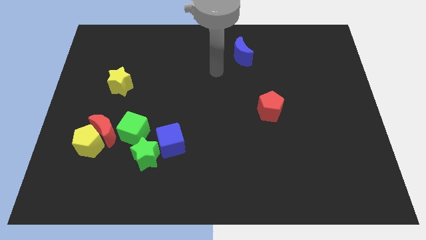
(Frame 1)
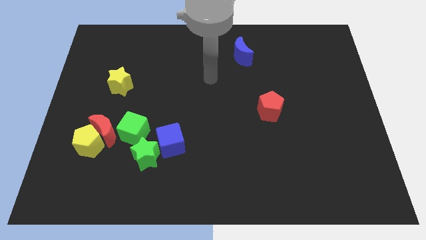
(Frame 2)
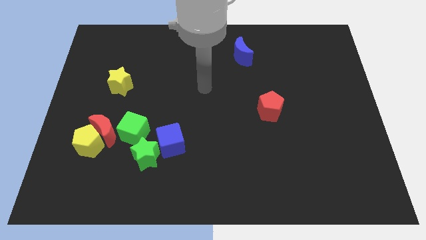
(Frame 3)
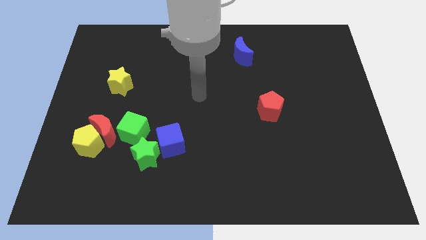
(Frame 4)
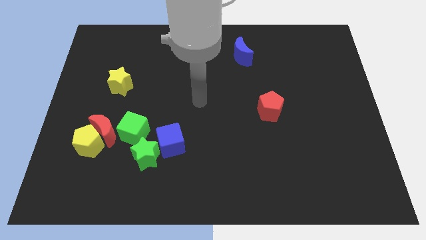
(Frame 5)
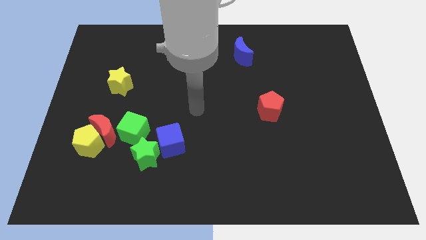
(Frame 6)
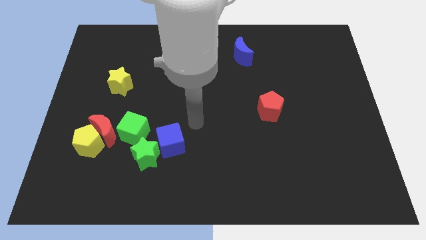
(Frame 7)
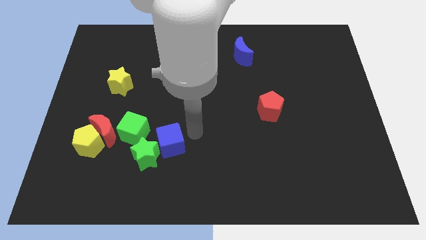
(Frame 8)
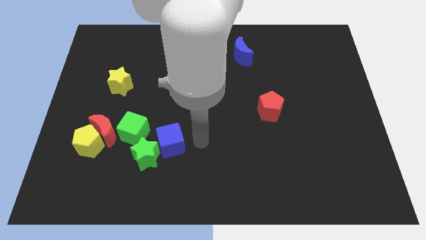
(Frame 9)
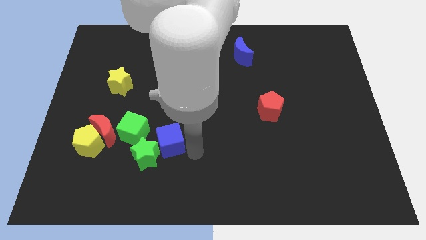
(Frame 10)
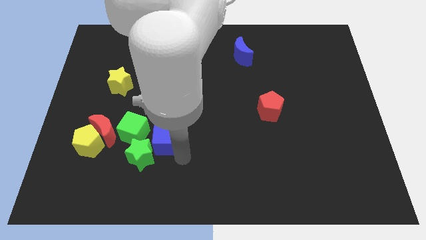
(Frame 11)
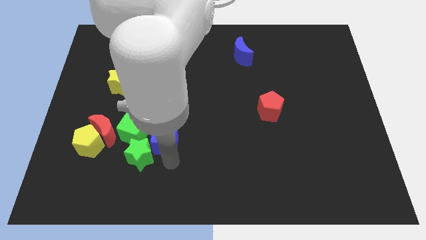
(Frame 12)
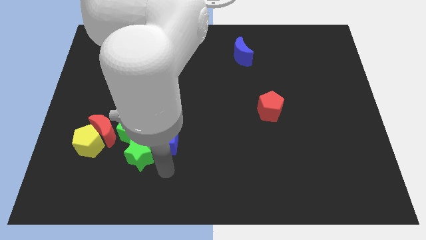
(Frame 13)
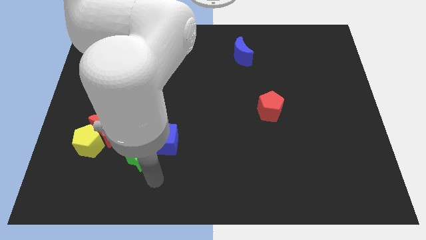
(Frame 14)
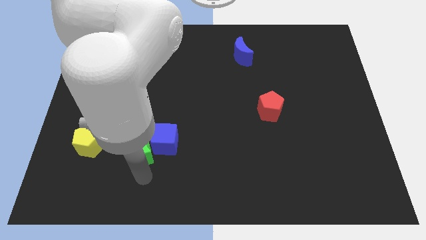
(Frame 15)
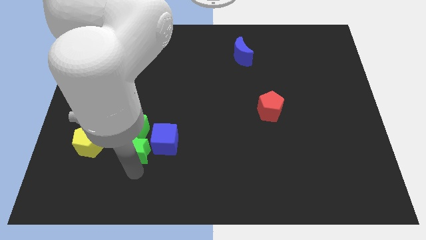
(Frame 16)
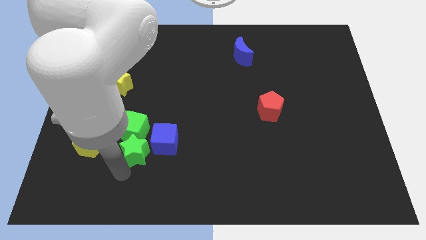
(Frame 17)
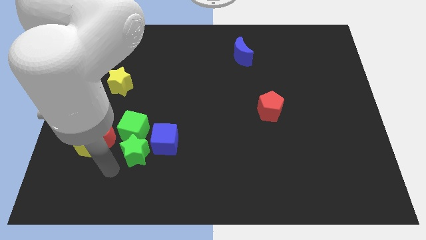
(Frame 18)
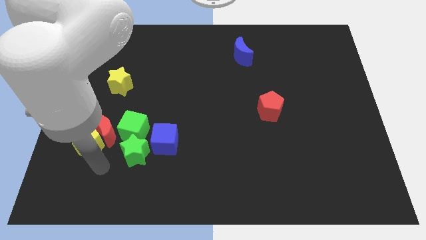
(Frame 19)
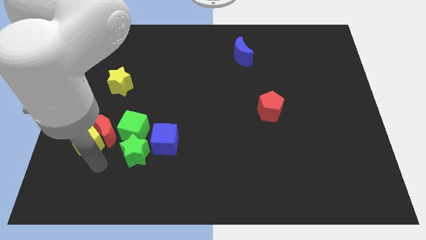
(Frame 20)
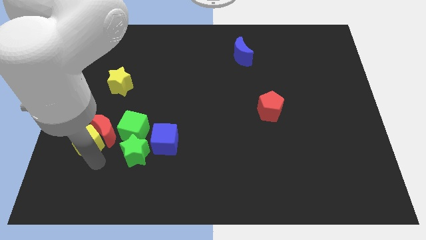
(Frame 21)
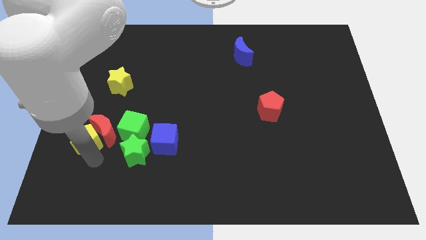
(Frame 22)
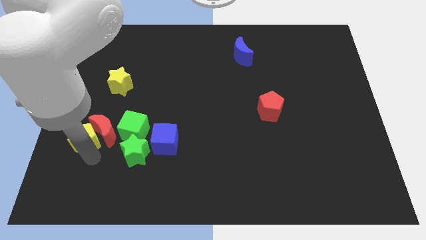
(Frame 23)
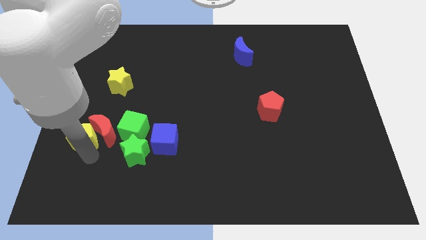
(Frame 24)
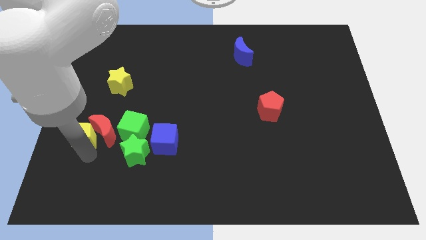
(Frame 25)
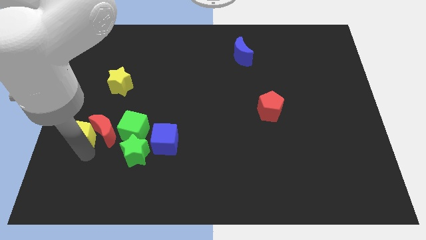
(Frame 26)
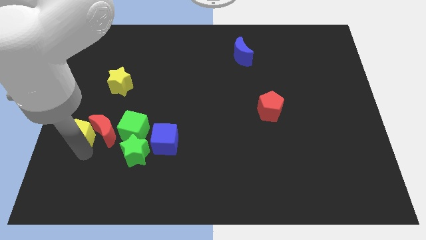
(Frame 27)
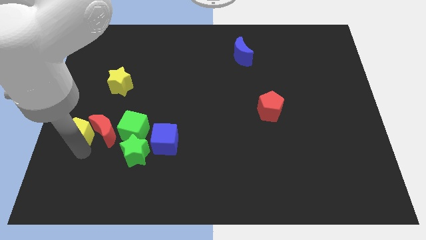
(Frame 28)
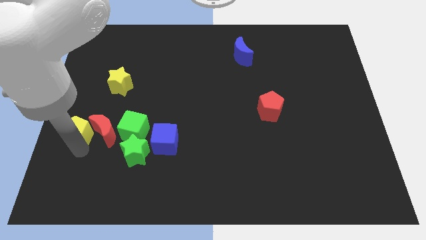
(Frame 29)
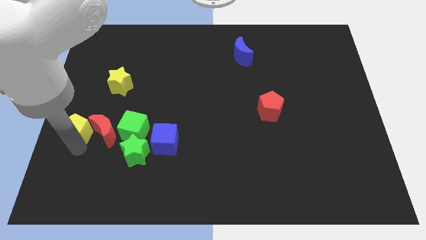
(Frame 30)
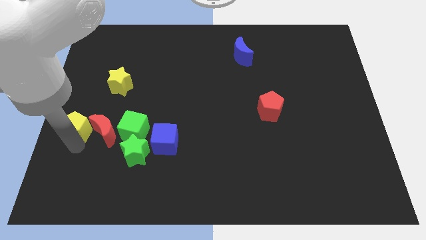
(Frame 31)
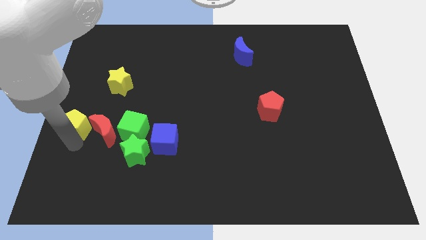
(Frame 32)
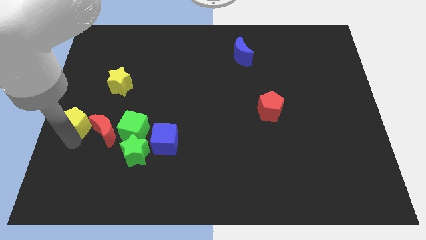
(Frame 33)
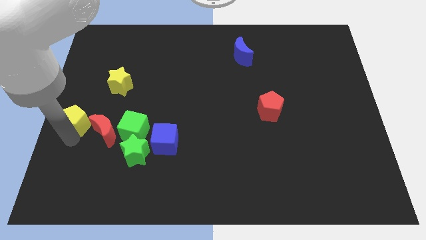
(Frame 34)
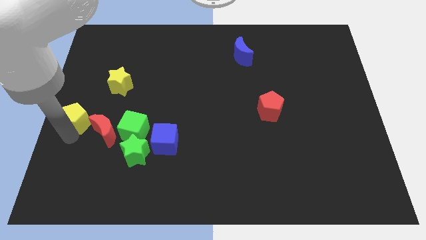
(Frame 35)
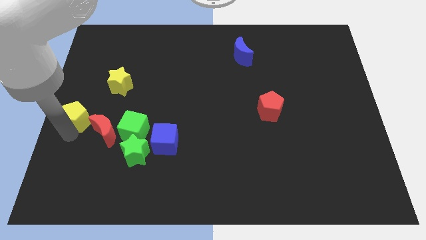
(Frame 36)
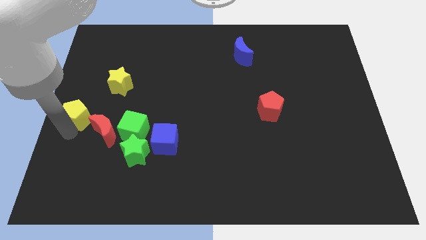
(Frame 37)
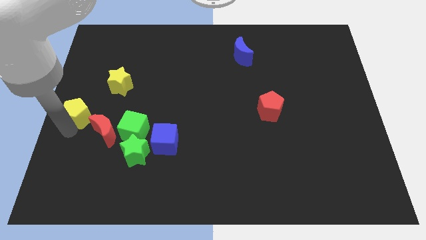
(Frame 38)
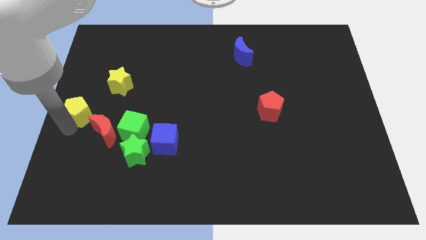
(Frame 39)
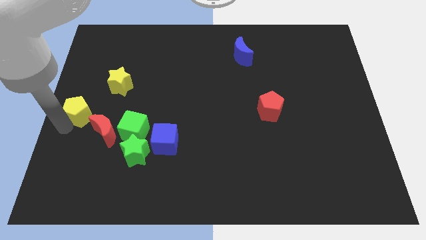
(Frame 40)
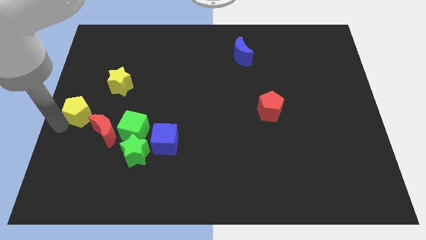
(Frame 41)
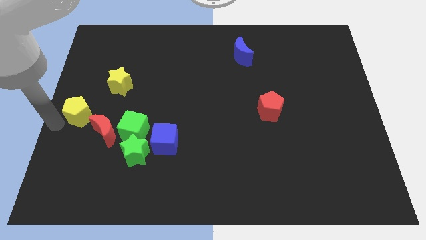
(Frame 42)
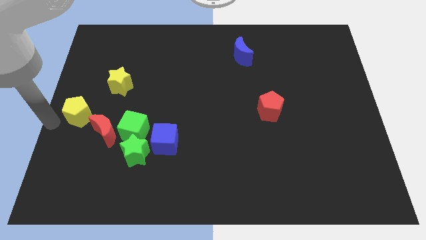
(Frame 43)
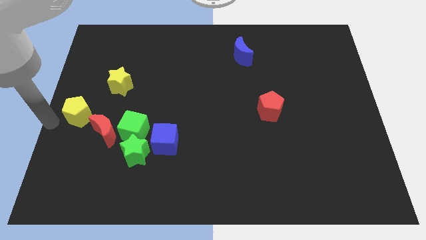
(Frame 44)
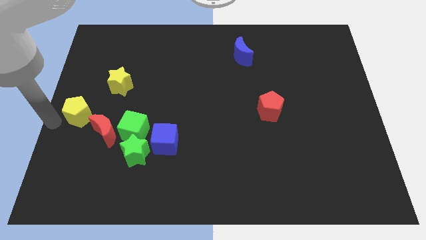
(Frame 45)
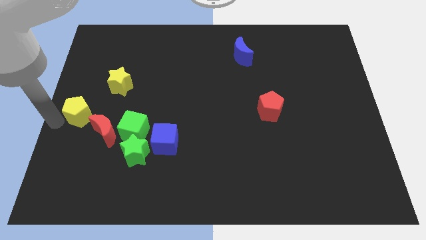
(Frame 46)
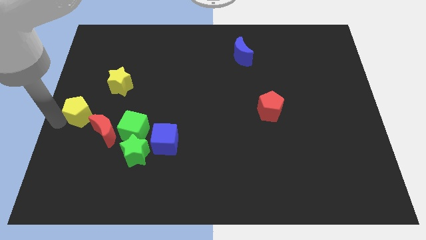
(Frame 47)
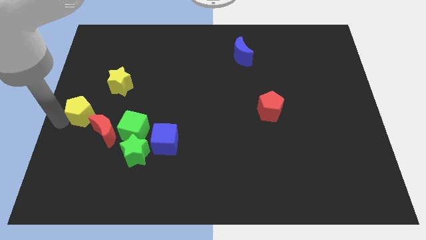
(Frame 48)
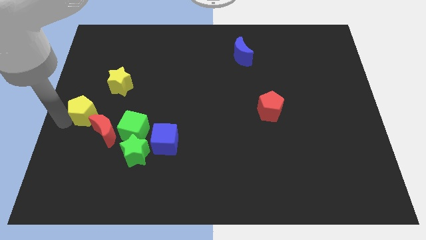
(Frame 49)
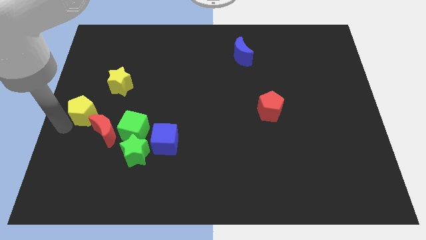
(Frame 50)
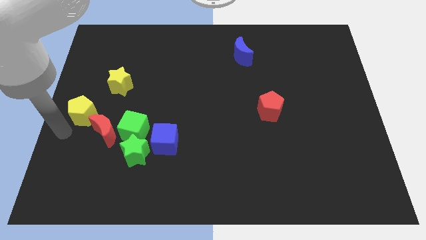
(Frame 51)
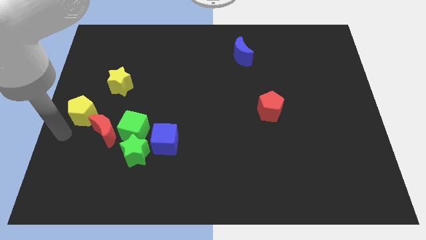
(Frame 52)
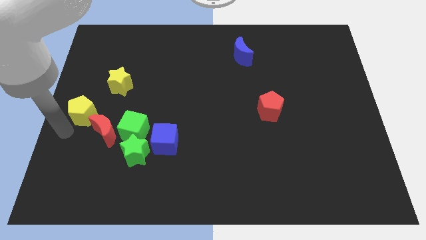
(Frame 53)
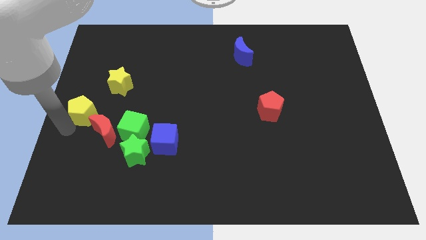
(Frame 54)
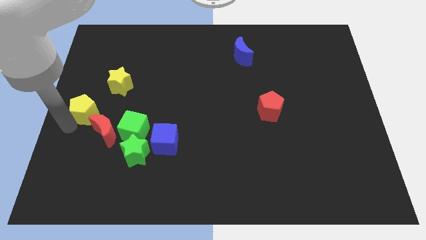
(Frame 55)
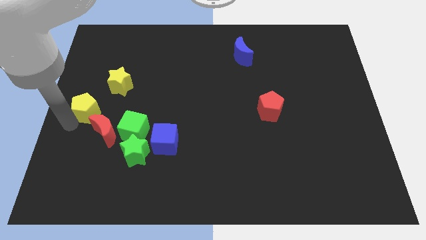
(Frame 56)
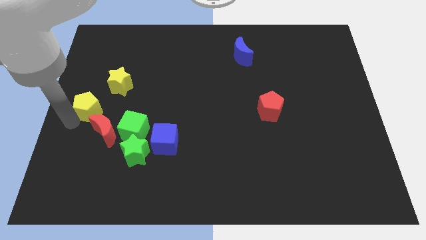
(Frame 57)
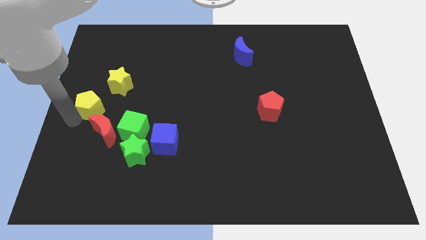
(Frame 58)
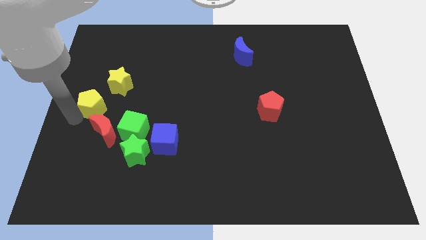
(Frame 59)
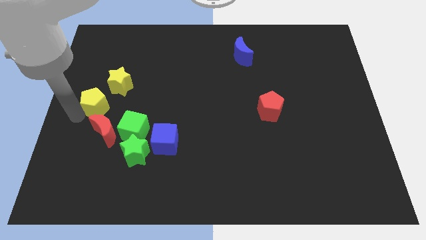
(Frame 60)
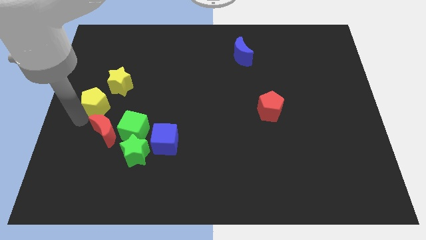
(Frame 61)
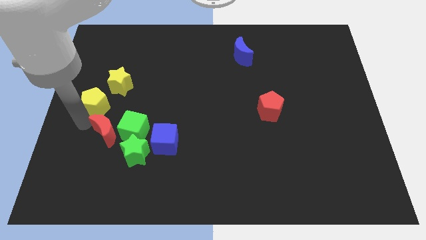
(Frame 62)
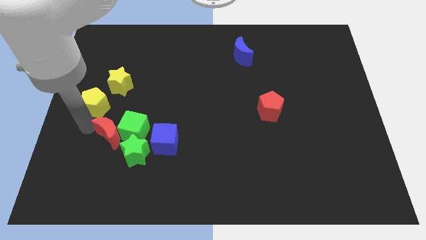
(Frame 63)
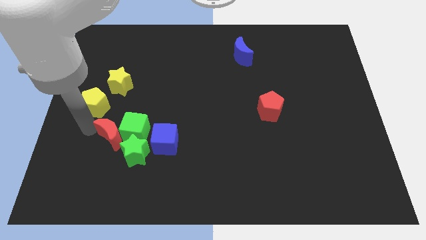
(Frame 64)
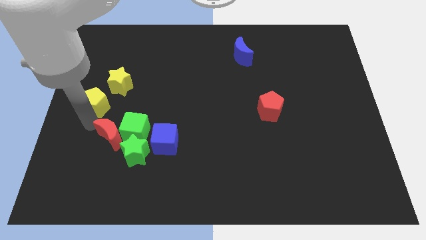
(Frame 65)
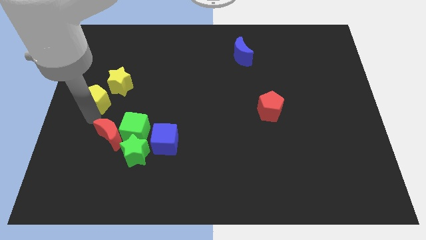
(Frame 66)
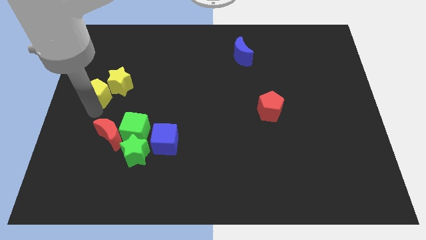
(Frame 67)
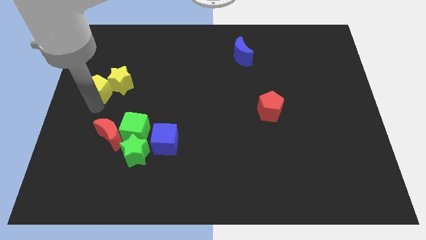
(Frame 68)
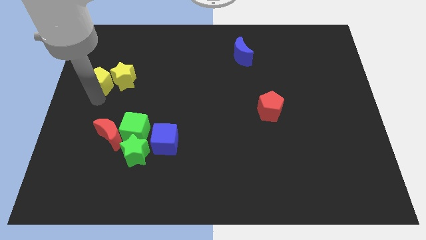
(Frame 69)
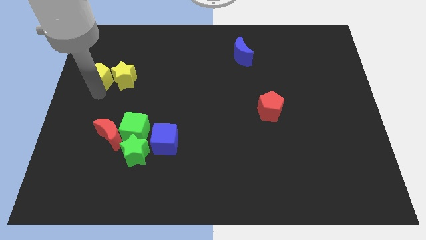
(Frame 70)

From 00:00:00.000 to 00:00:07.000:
move the yellow pentagon to the top left of the yellow star

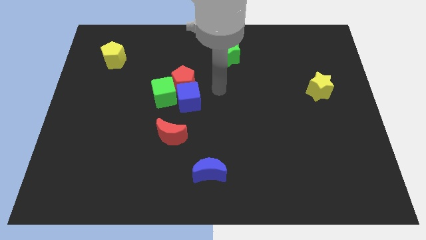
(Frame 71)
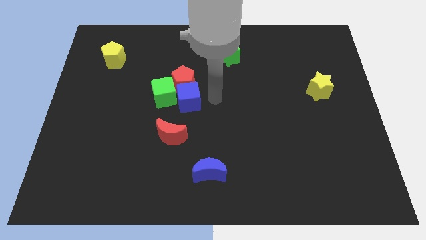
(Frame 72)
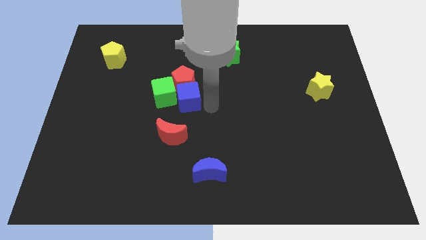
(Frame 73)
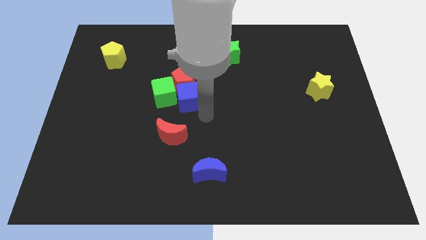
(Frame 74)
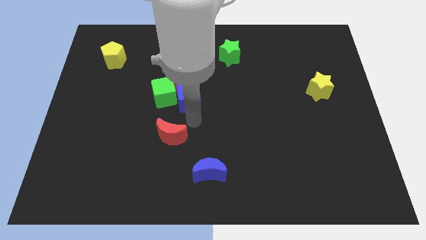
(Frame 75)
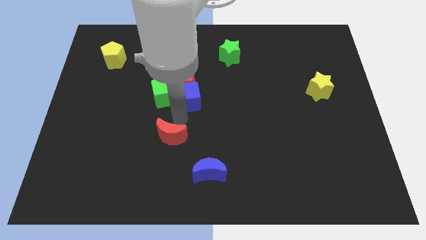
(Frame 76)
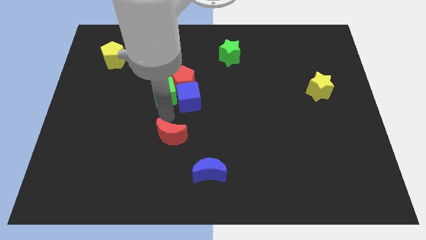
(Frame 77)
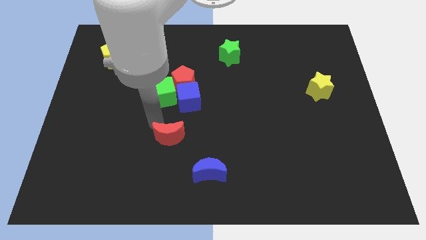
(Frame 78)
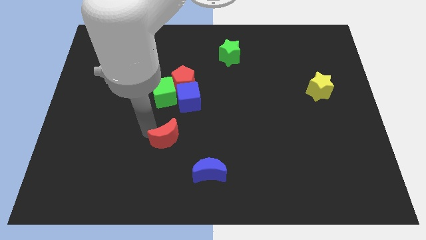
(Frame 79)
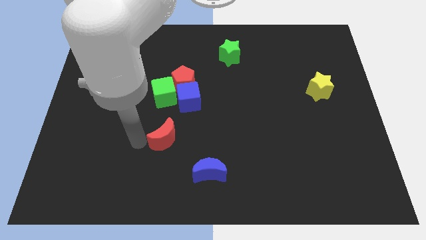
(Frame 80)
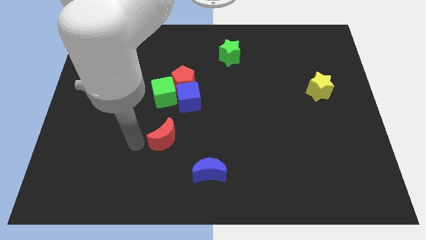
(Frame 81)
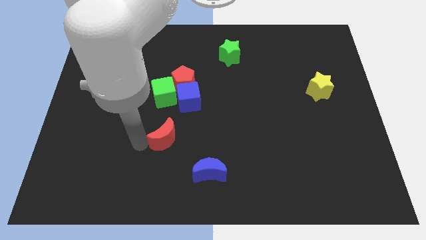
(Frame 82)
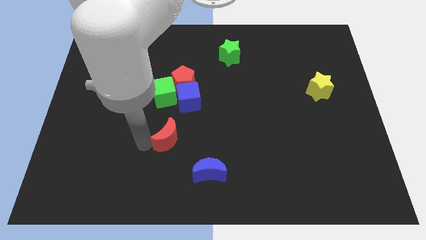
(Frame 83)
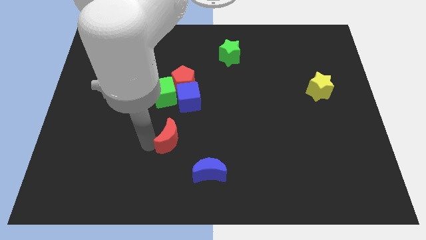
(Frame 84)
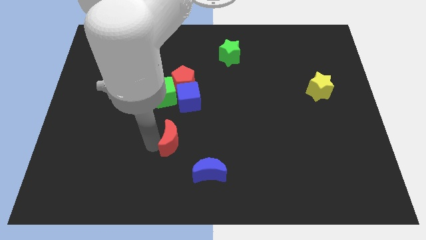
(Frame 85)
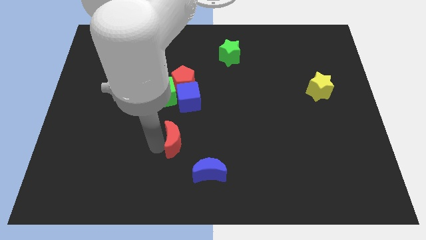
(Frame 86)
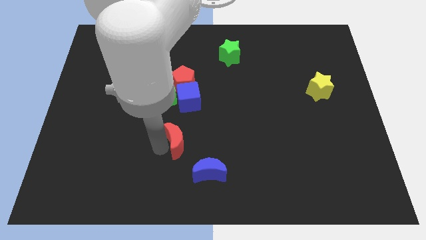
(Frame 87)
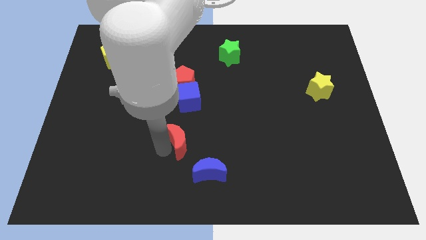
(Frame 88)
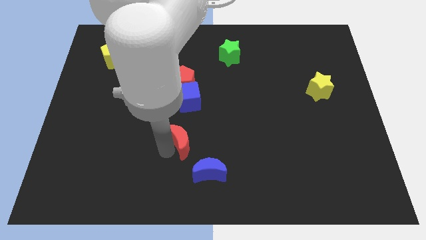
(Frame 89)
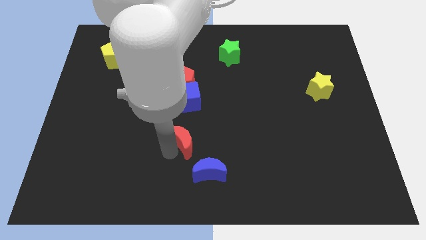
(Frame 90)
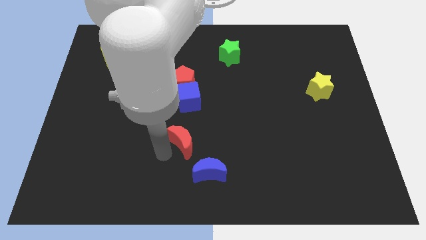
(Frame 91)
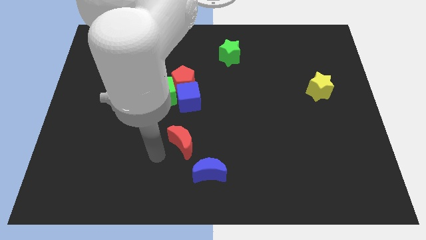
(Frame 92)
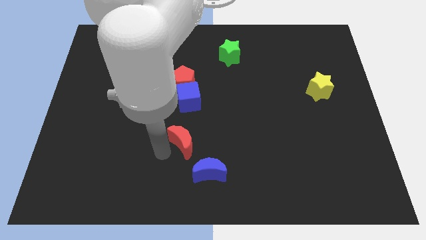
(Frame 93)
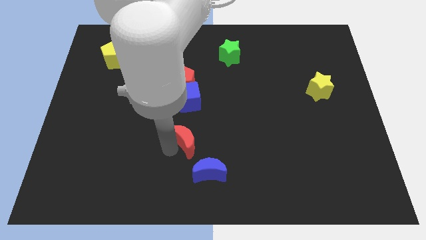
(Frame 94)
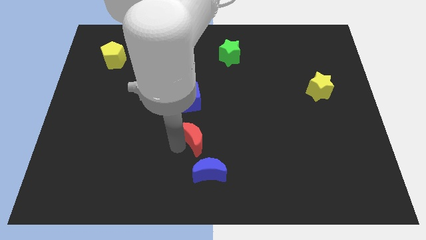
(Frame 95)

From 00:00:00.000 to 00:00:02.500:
move the red moon above the blue moon
